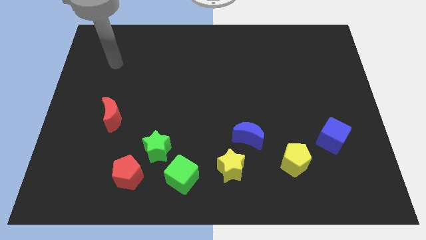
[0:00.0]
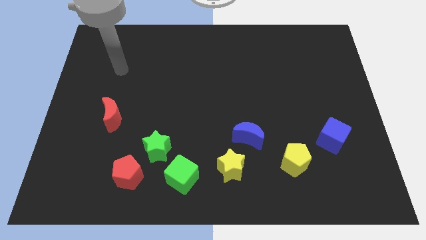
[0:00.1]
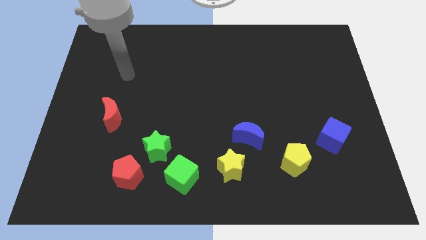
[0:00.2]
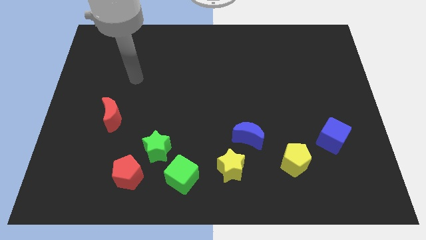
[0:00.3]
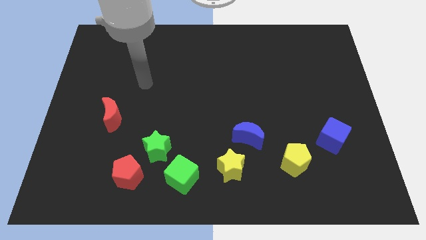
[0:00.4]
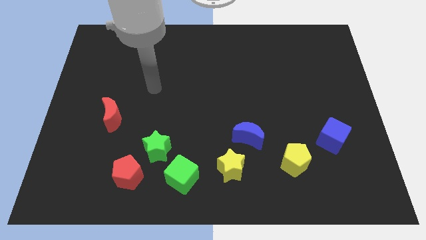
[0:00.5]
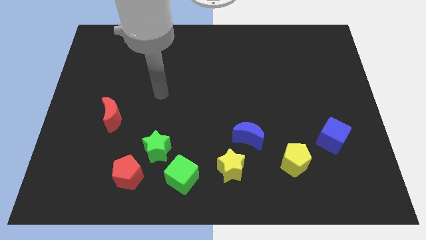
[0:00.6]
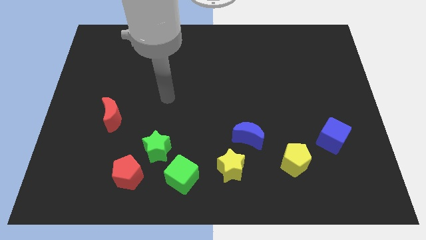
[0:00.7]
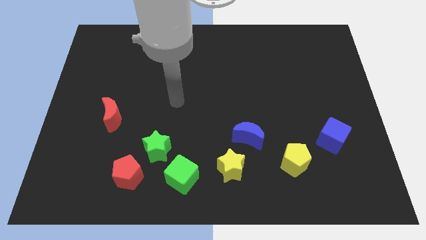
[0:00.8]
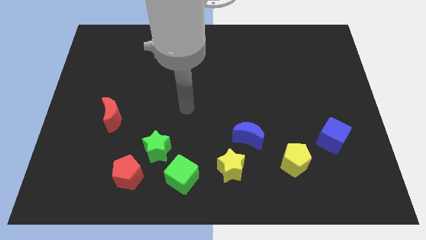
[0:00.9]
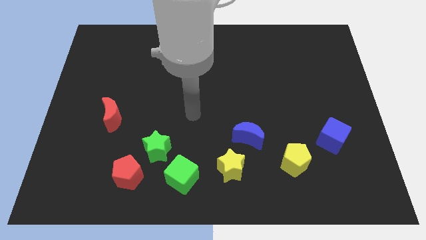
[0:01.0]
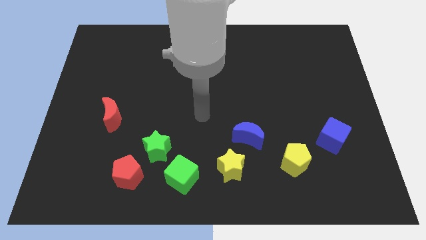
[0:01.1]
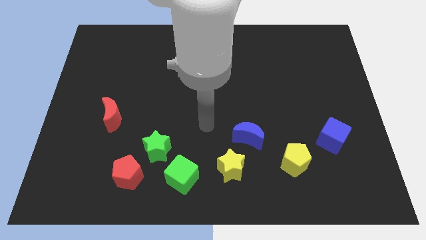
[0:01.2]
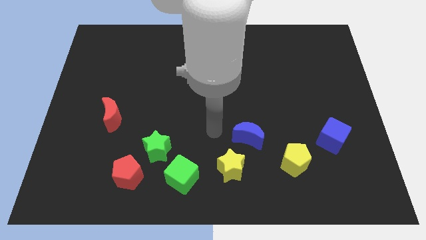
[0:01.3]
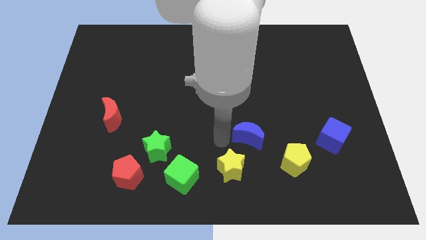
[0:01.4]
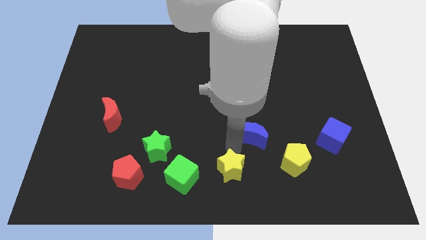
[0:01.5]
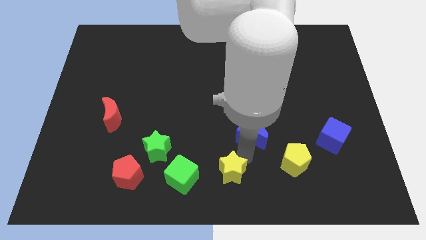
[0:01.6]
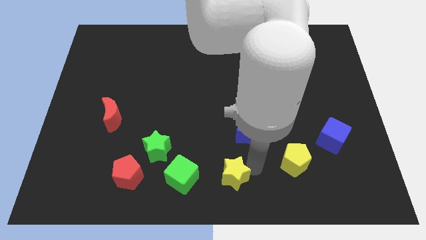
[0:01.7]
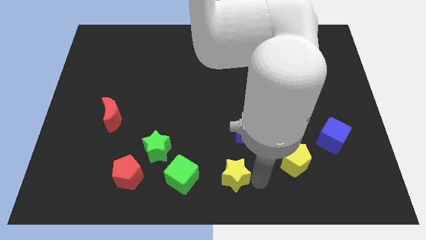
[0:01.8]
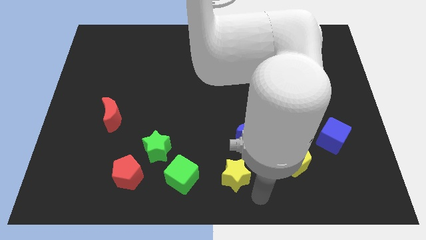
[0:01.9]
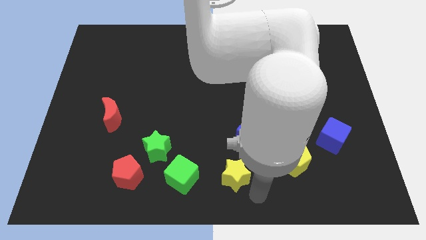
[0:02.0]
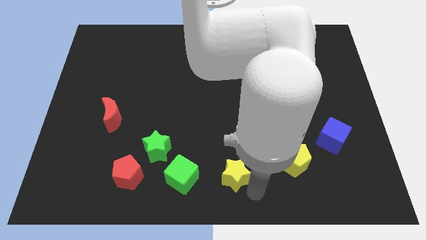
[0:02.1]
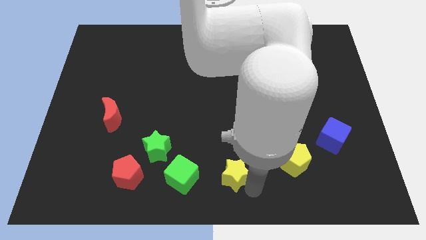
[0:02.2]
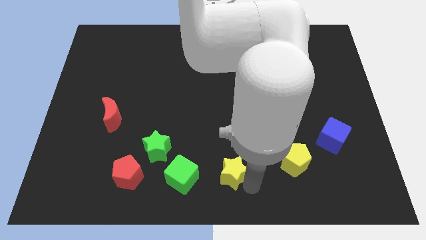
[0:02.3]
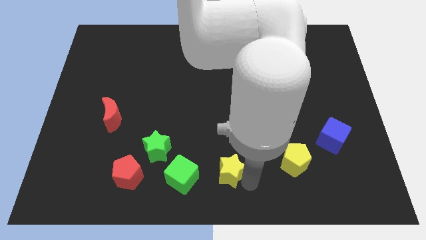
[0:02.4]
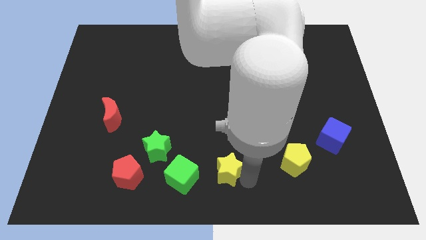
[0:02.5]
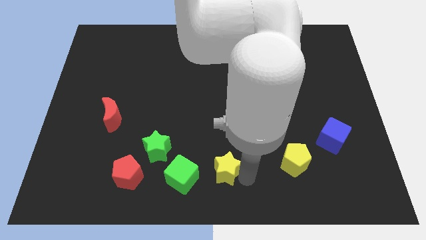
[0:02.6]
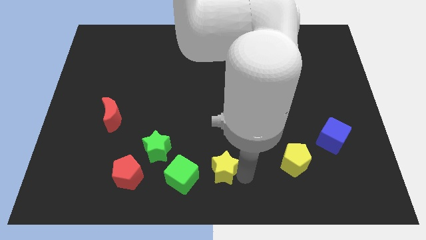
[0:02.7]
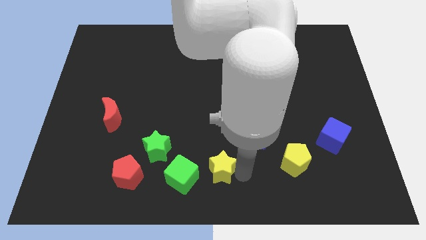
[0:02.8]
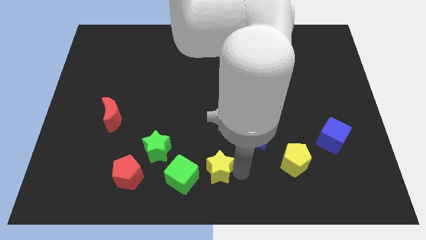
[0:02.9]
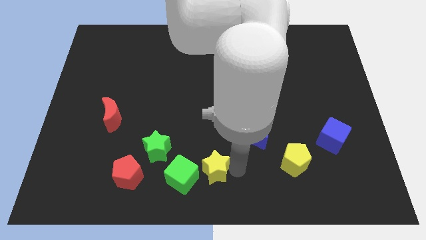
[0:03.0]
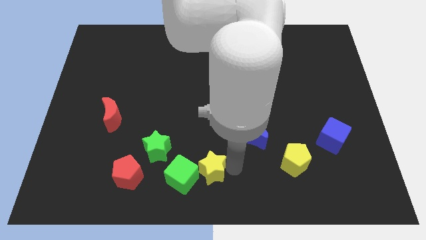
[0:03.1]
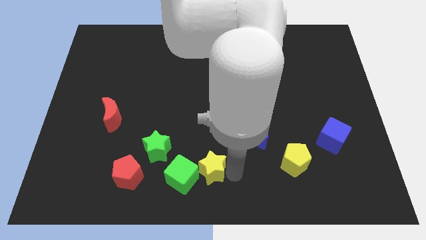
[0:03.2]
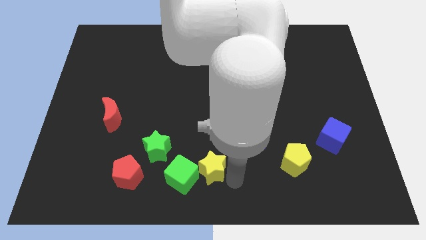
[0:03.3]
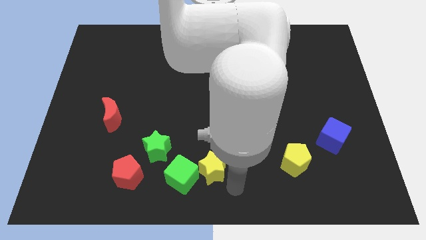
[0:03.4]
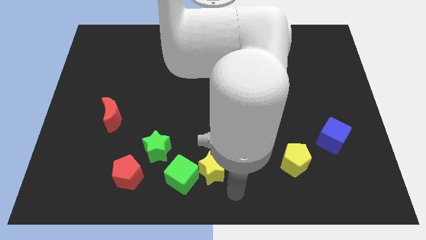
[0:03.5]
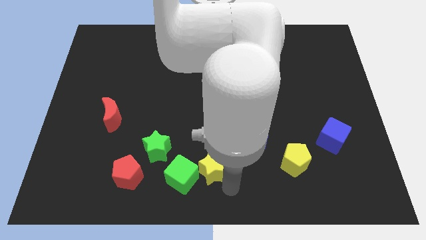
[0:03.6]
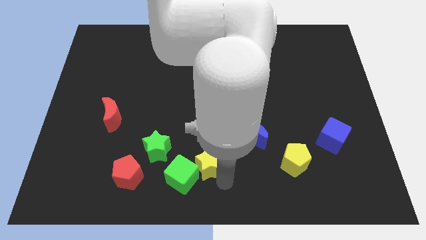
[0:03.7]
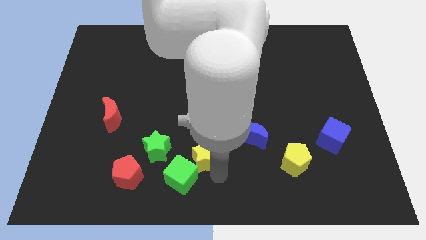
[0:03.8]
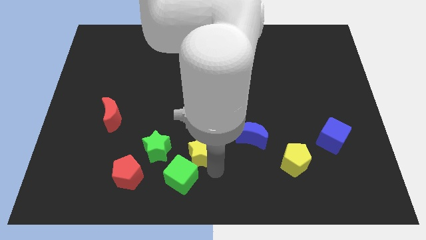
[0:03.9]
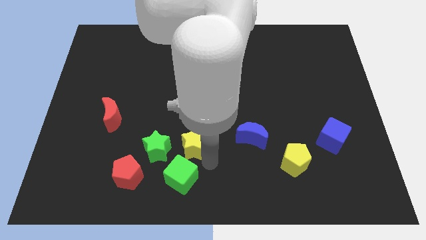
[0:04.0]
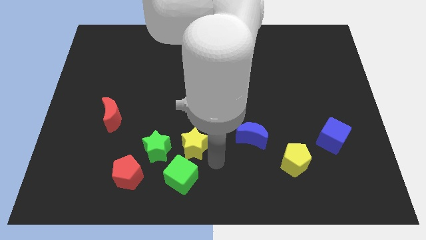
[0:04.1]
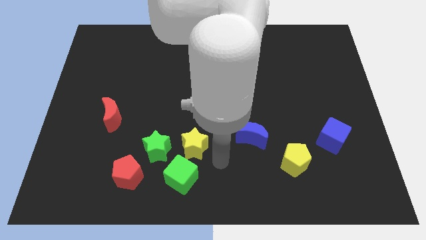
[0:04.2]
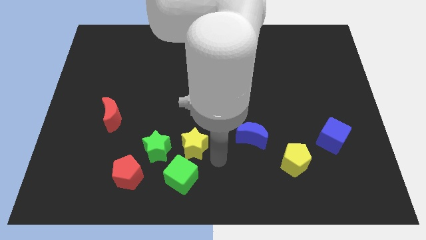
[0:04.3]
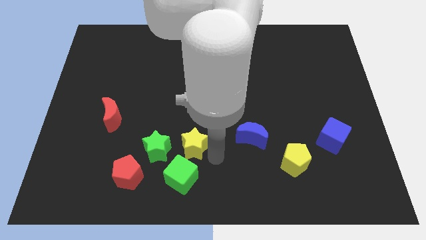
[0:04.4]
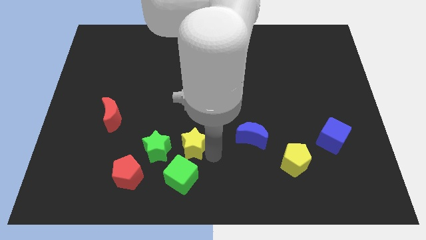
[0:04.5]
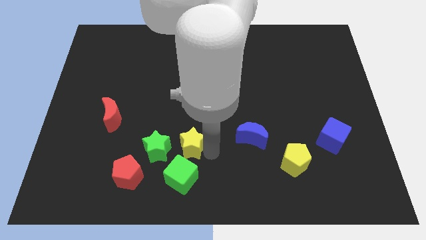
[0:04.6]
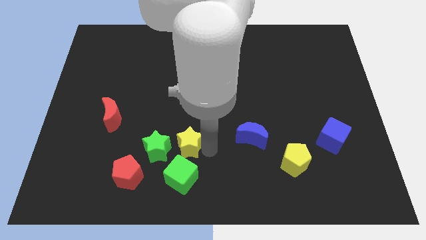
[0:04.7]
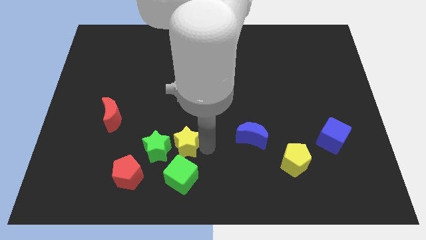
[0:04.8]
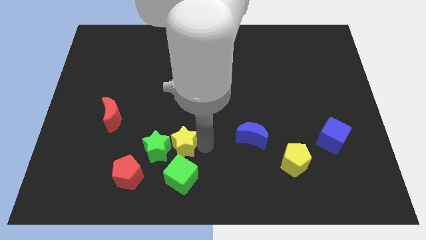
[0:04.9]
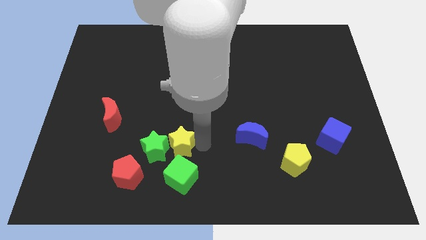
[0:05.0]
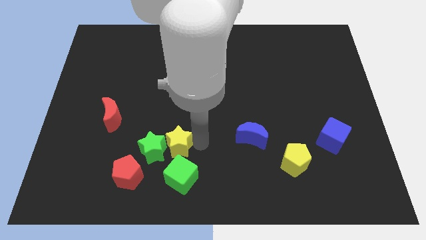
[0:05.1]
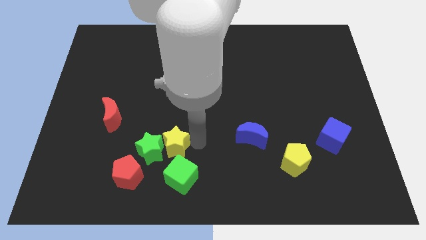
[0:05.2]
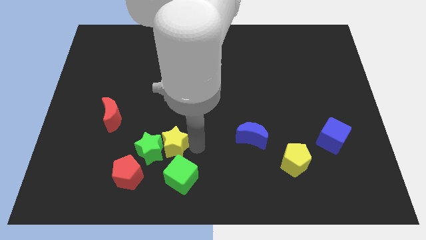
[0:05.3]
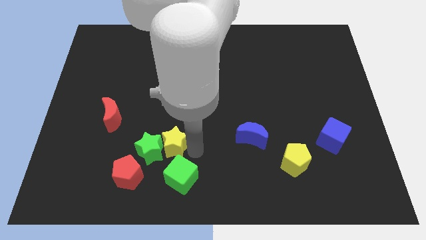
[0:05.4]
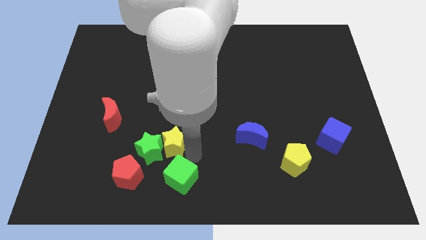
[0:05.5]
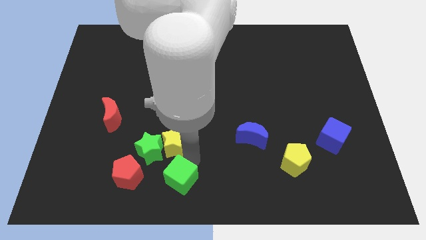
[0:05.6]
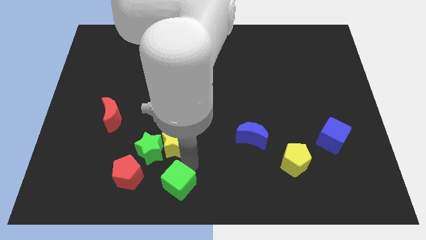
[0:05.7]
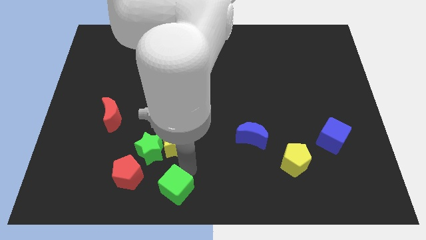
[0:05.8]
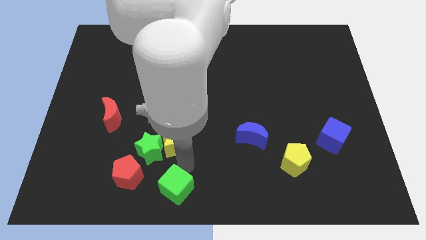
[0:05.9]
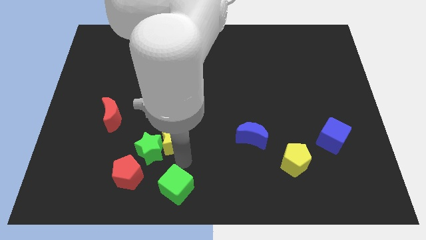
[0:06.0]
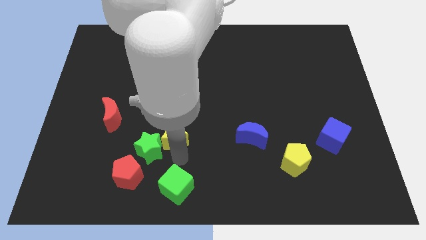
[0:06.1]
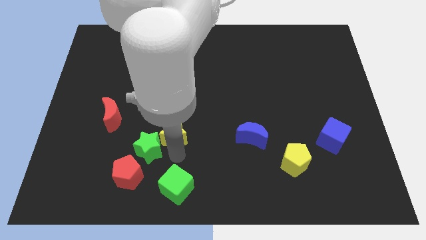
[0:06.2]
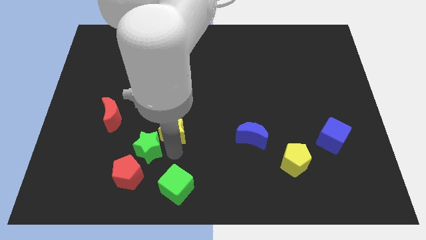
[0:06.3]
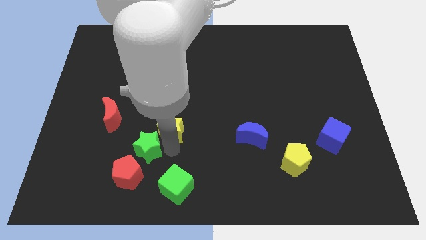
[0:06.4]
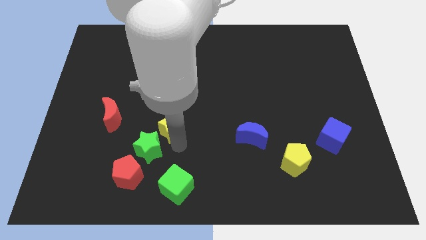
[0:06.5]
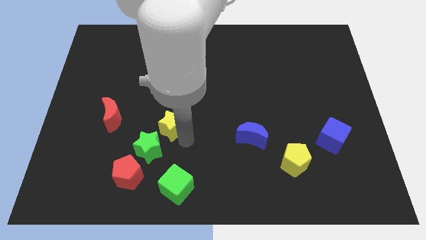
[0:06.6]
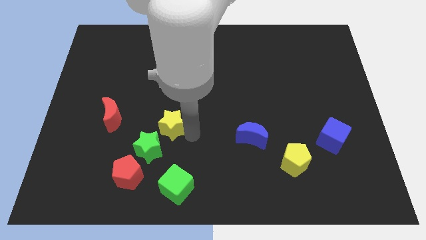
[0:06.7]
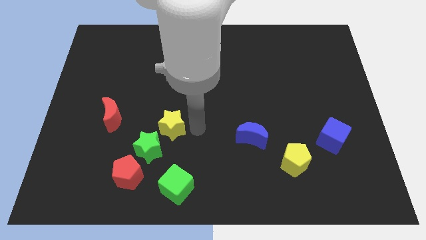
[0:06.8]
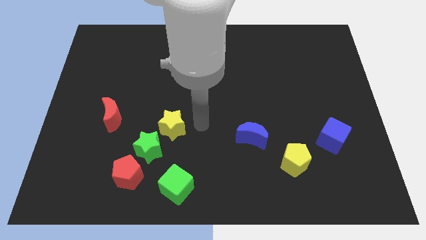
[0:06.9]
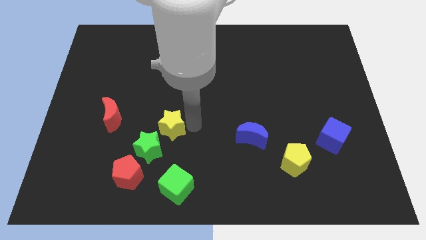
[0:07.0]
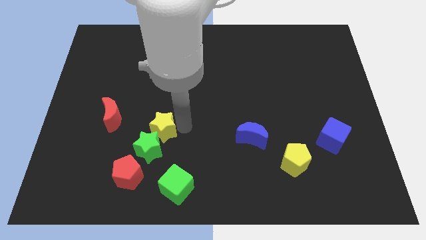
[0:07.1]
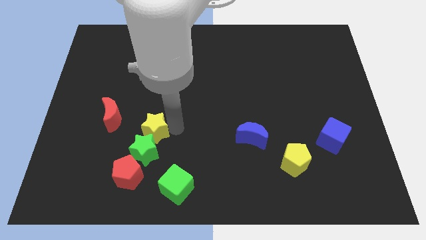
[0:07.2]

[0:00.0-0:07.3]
slide the yellow star to the top of the red pentagon
